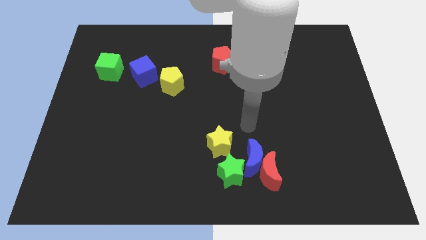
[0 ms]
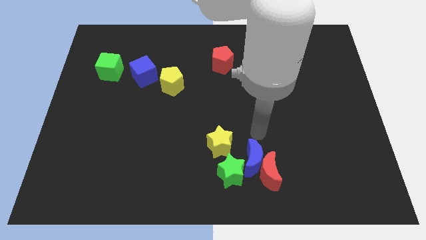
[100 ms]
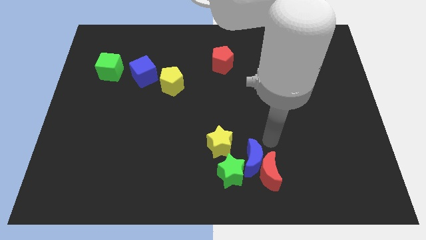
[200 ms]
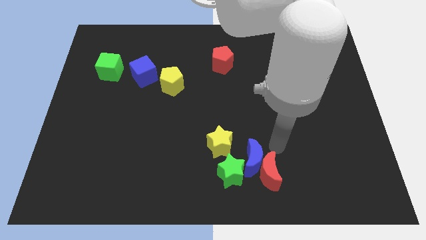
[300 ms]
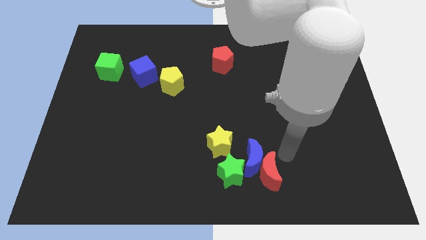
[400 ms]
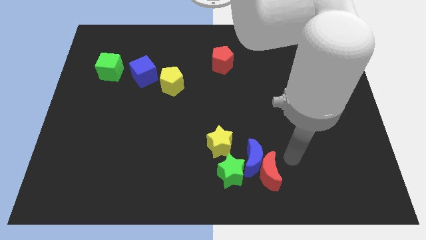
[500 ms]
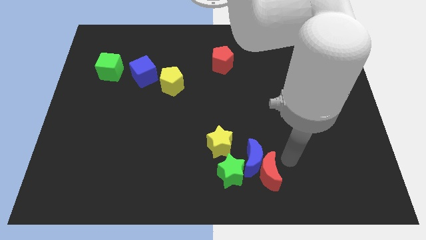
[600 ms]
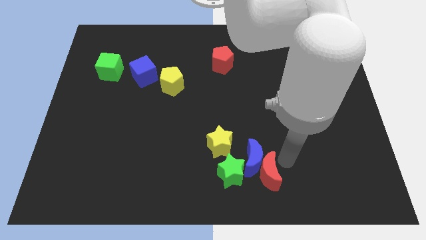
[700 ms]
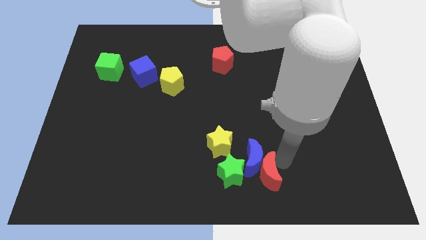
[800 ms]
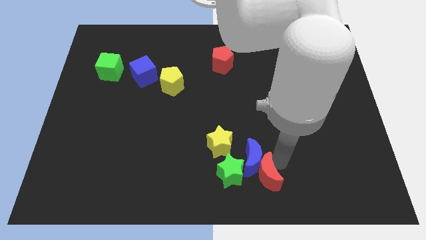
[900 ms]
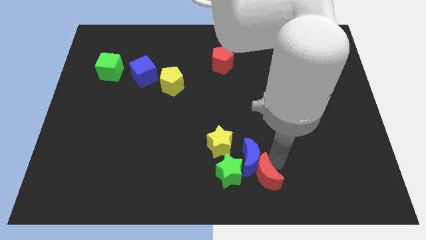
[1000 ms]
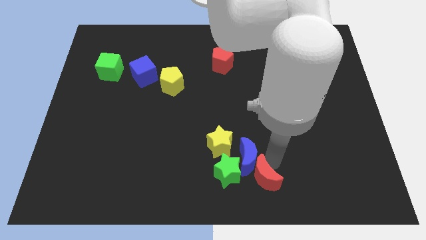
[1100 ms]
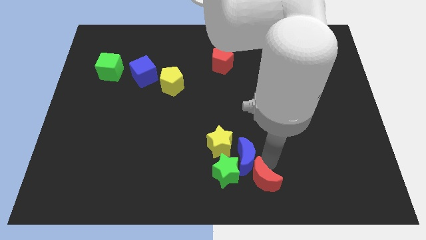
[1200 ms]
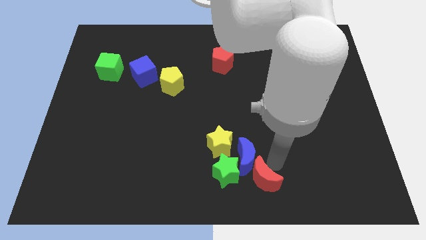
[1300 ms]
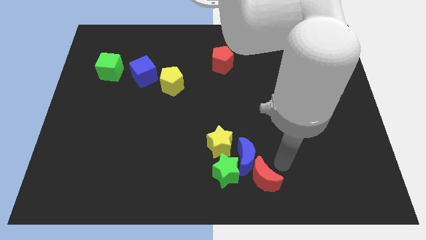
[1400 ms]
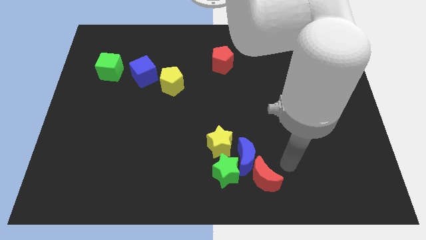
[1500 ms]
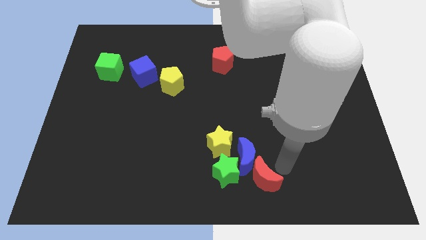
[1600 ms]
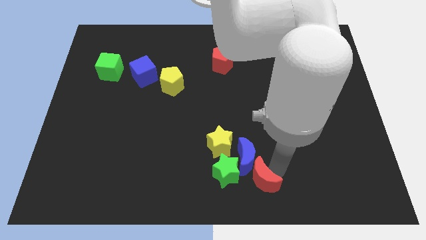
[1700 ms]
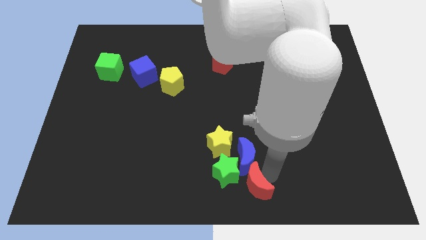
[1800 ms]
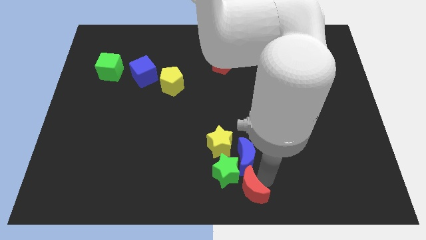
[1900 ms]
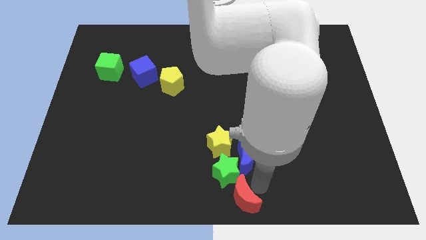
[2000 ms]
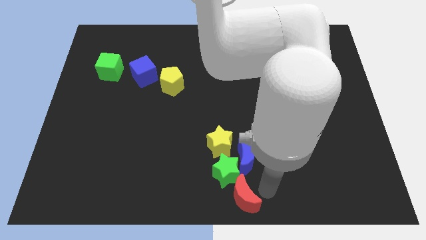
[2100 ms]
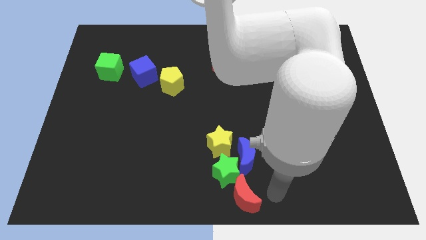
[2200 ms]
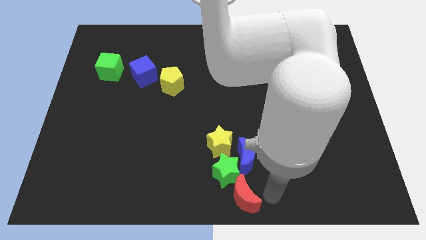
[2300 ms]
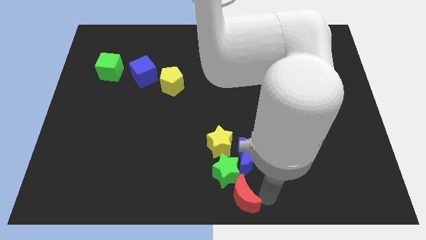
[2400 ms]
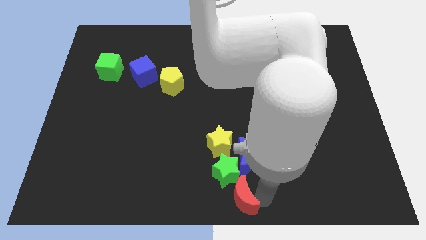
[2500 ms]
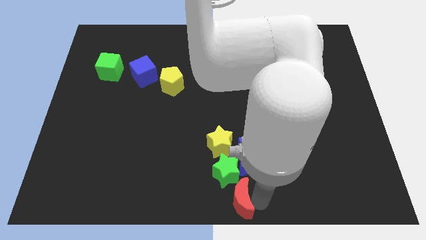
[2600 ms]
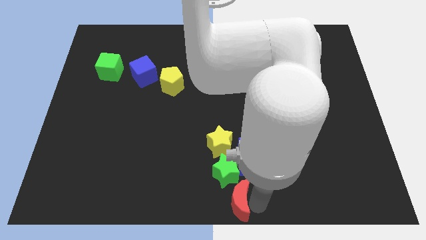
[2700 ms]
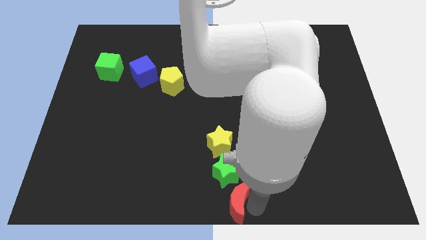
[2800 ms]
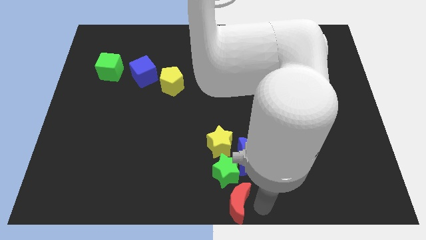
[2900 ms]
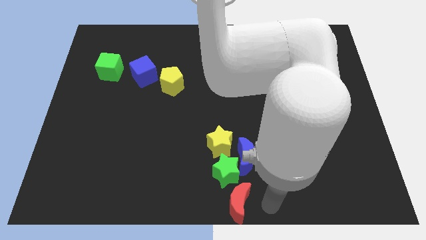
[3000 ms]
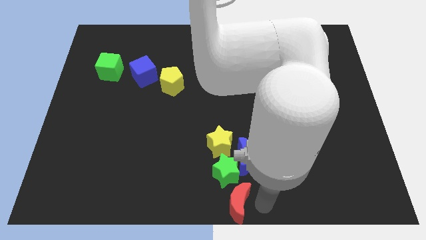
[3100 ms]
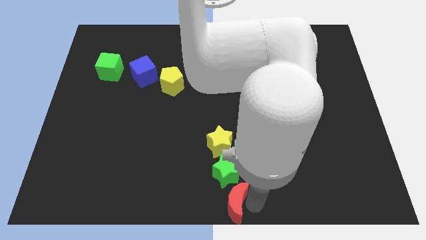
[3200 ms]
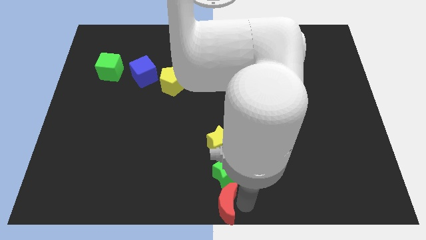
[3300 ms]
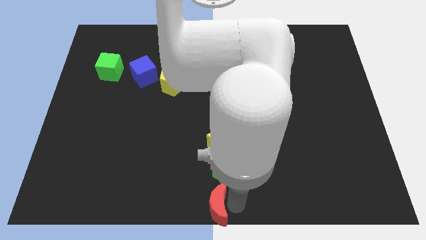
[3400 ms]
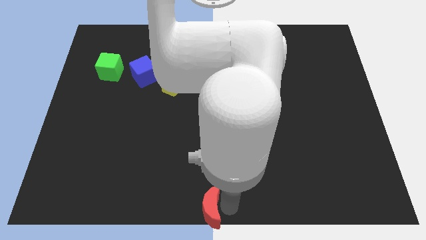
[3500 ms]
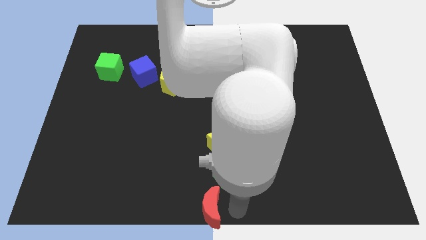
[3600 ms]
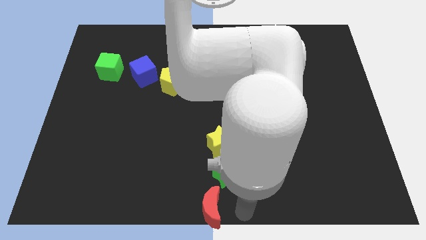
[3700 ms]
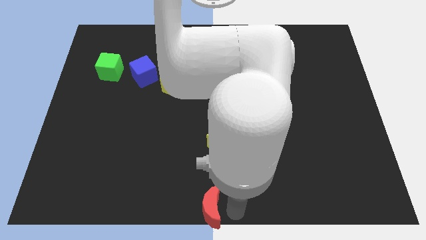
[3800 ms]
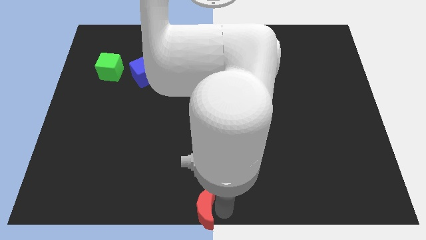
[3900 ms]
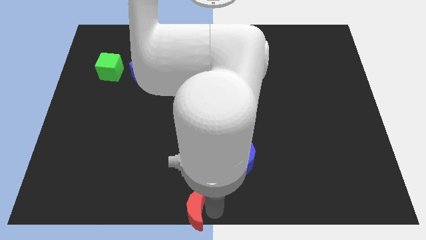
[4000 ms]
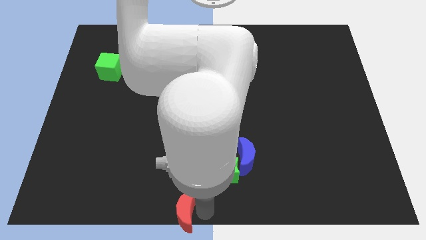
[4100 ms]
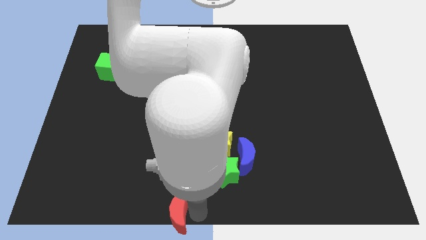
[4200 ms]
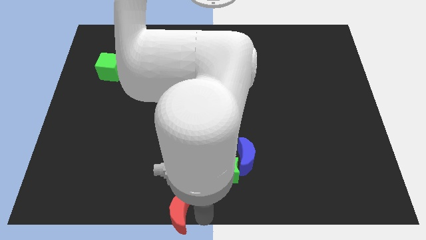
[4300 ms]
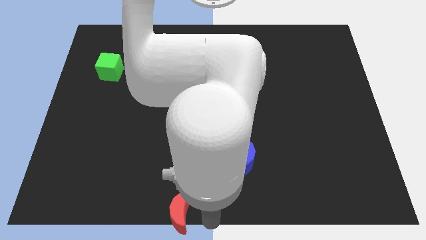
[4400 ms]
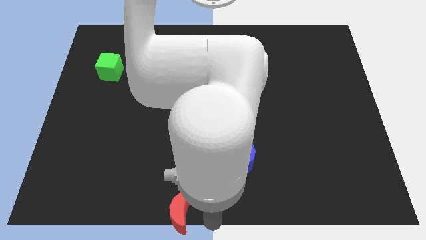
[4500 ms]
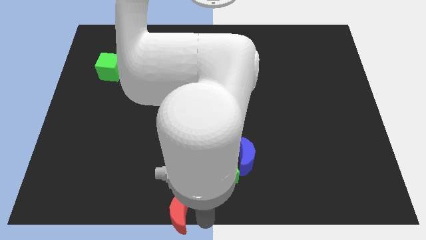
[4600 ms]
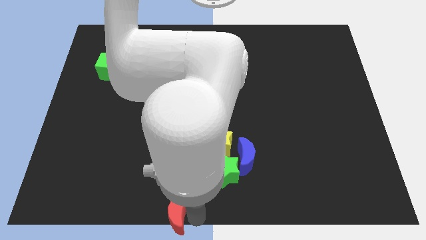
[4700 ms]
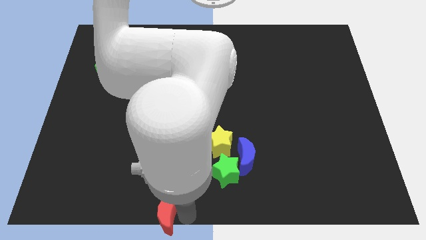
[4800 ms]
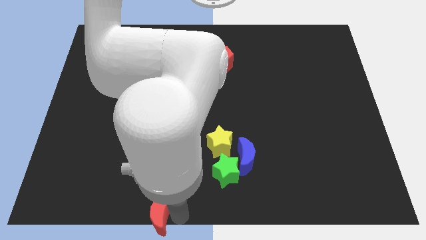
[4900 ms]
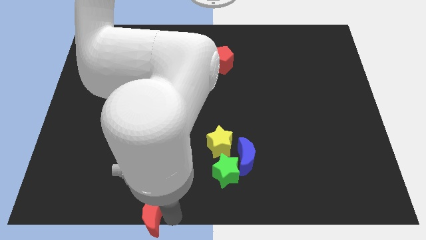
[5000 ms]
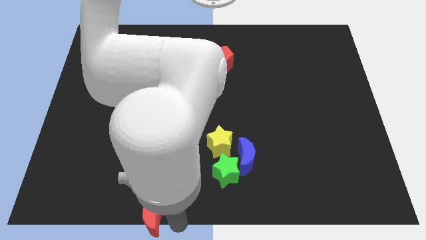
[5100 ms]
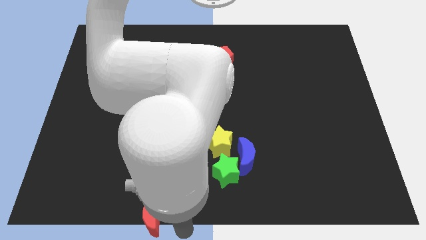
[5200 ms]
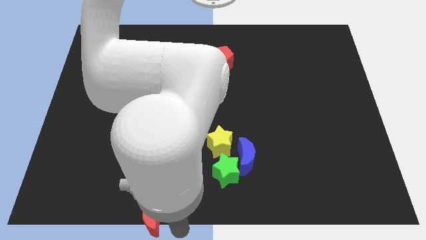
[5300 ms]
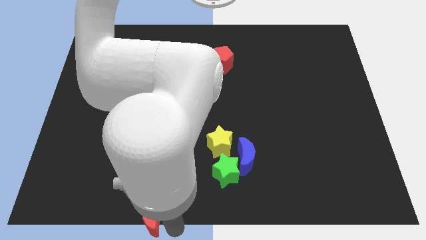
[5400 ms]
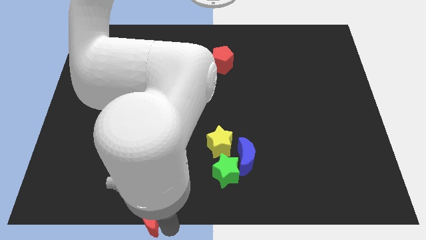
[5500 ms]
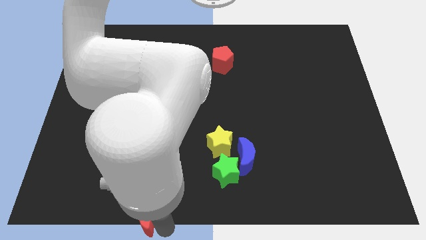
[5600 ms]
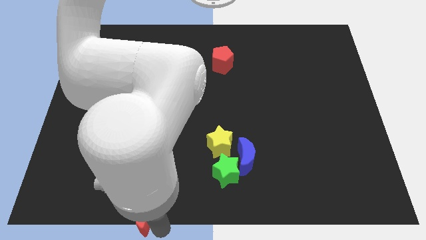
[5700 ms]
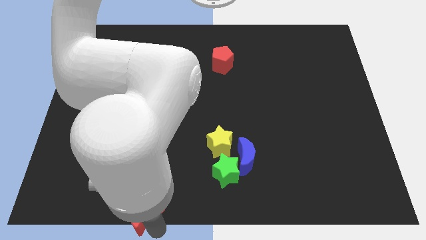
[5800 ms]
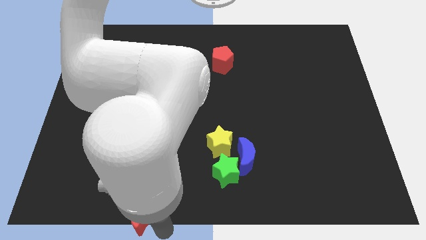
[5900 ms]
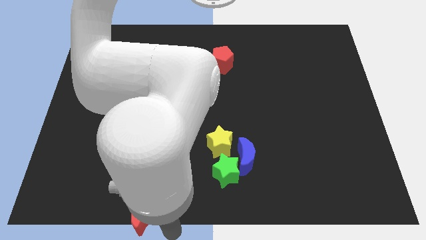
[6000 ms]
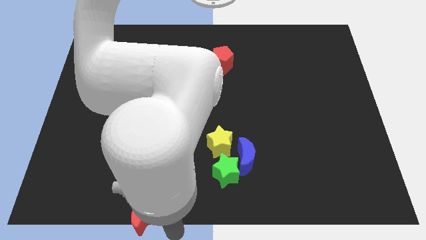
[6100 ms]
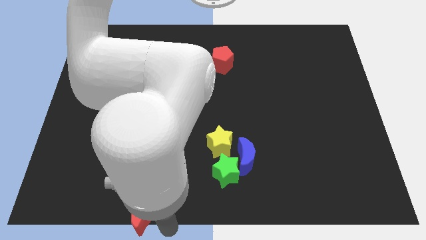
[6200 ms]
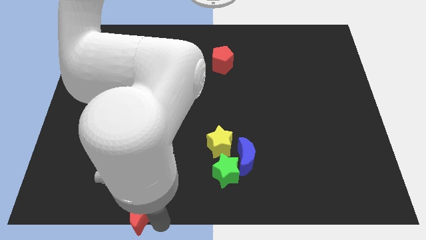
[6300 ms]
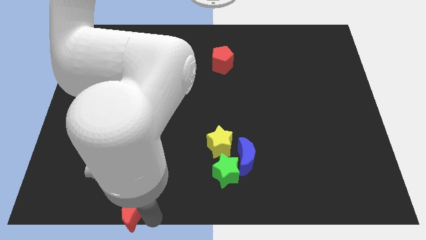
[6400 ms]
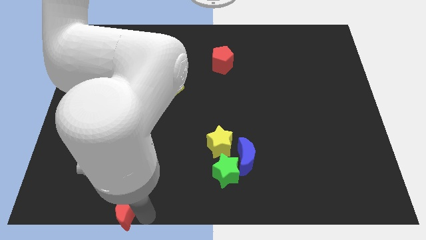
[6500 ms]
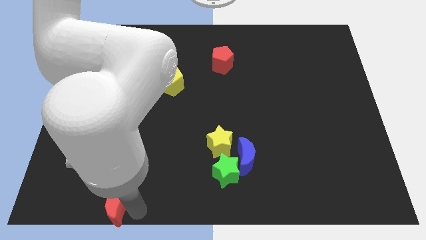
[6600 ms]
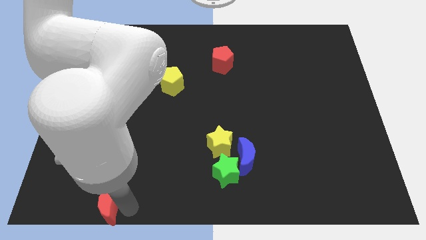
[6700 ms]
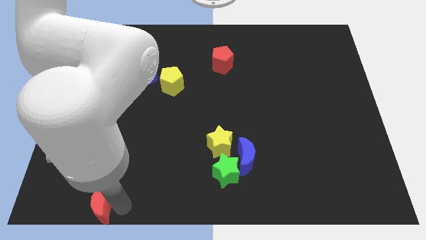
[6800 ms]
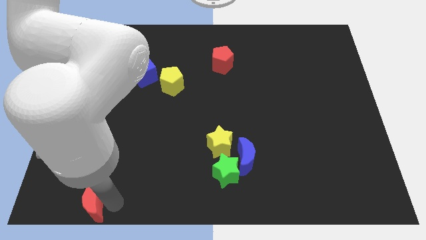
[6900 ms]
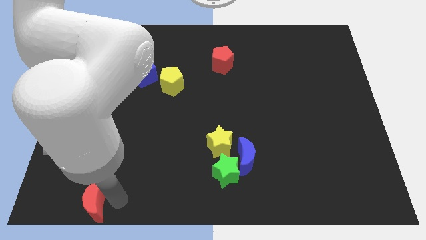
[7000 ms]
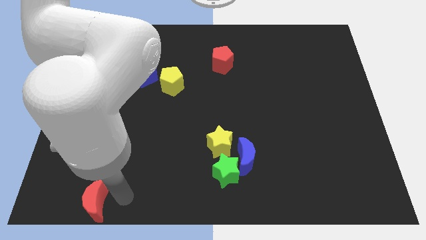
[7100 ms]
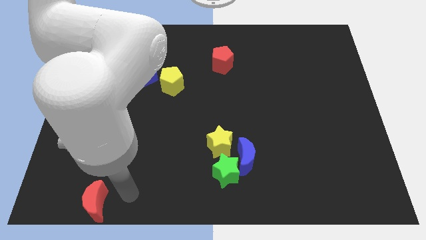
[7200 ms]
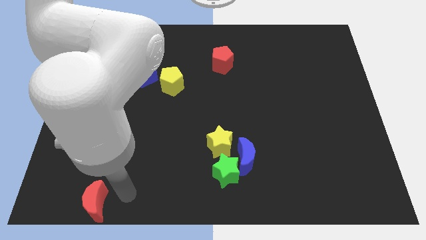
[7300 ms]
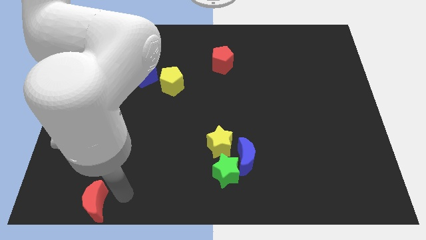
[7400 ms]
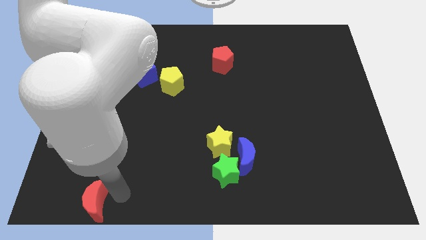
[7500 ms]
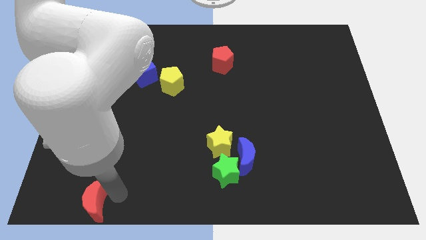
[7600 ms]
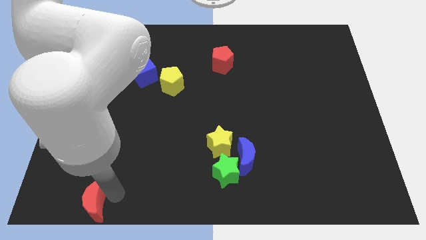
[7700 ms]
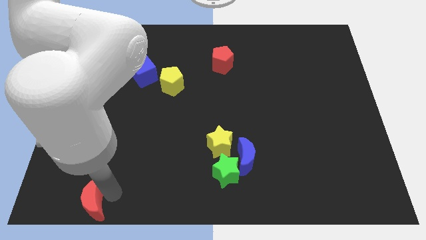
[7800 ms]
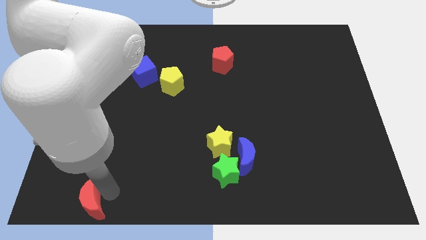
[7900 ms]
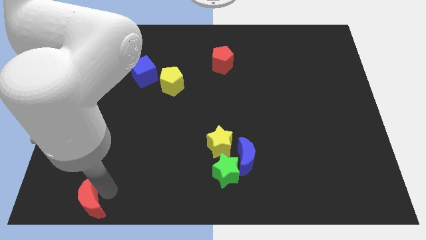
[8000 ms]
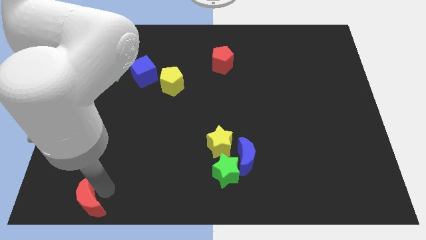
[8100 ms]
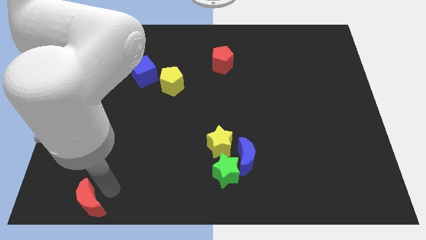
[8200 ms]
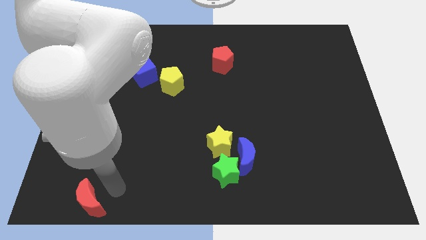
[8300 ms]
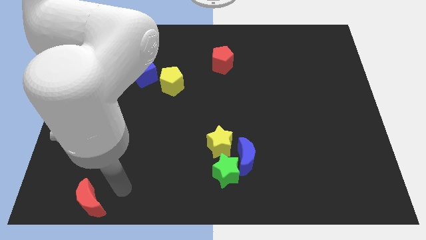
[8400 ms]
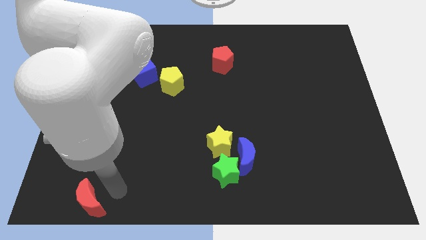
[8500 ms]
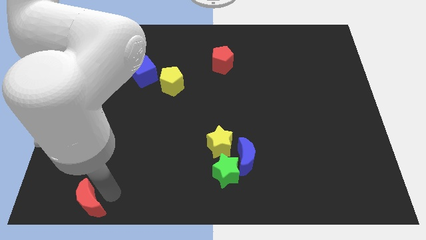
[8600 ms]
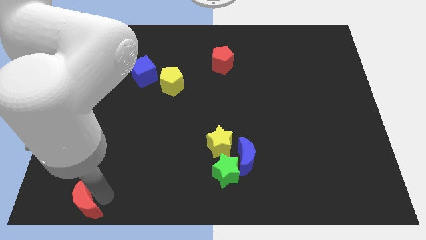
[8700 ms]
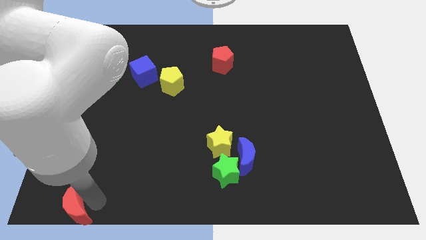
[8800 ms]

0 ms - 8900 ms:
push the red moon to the bottom left
